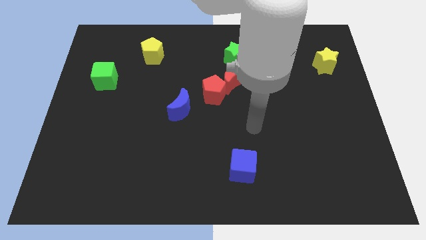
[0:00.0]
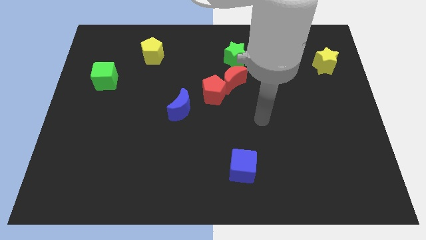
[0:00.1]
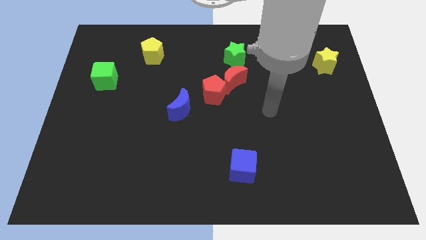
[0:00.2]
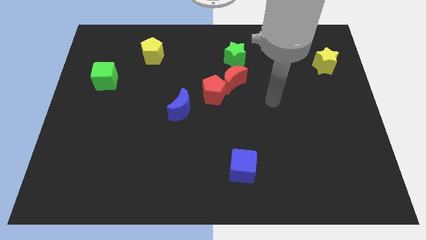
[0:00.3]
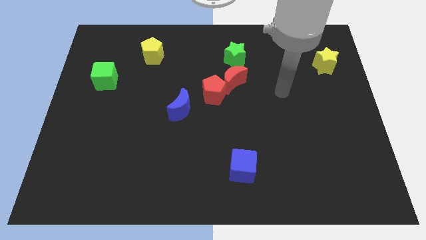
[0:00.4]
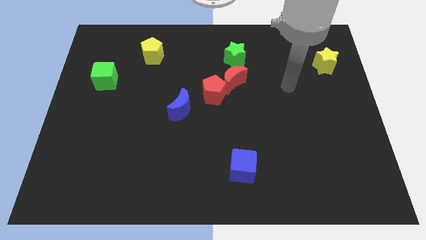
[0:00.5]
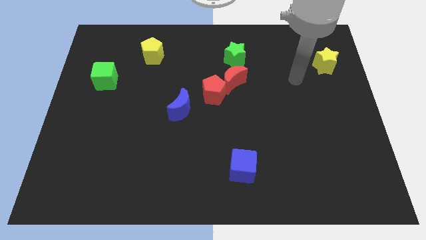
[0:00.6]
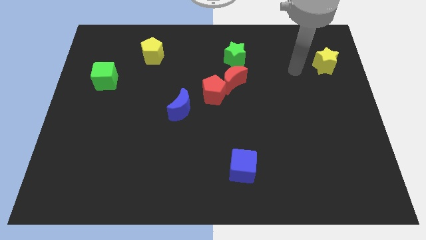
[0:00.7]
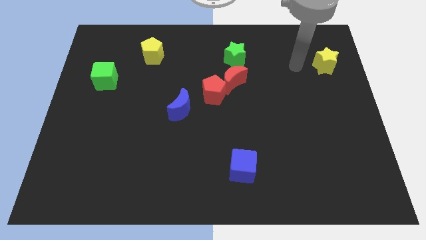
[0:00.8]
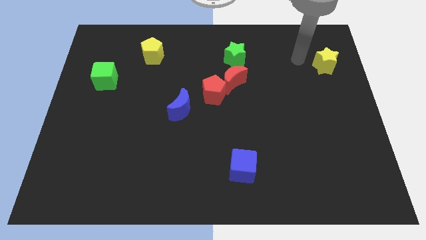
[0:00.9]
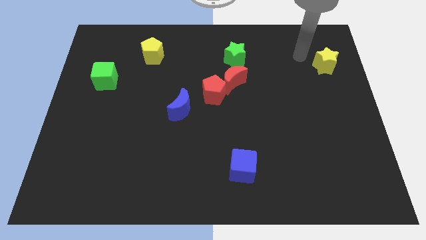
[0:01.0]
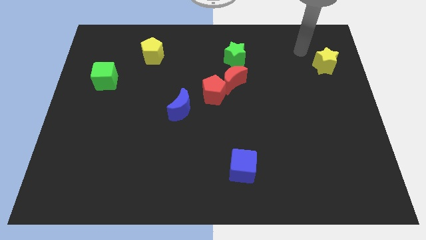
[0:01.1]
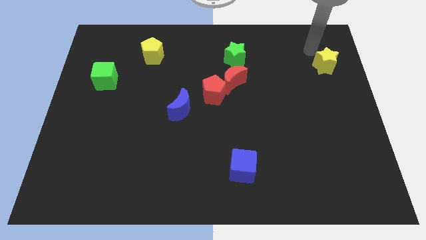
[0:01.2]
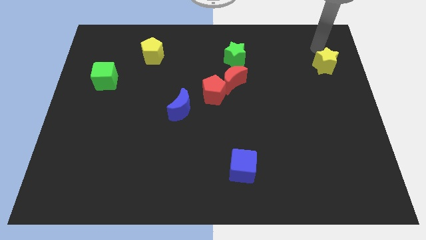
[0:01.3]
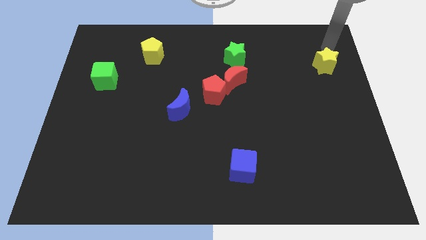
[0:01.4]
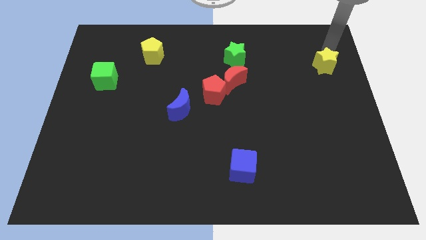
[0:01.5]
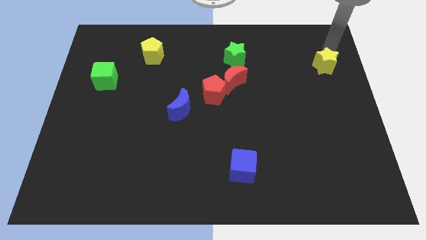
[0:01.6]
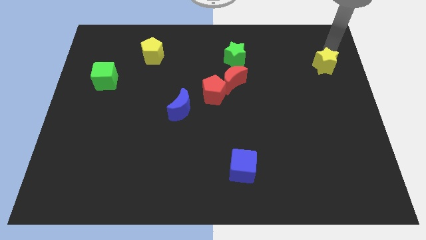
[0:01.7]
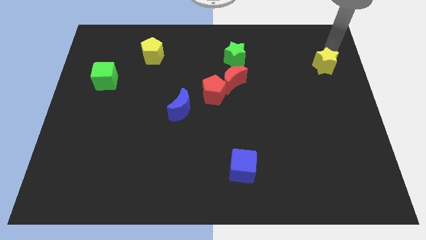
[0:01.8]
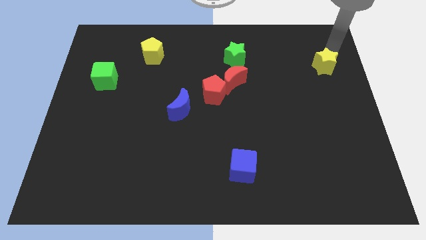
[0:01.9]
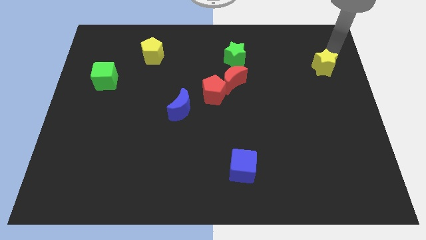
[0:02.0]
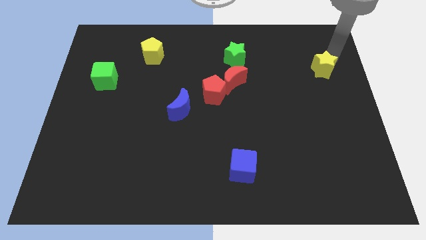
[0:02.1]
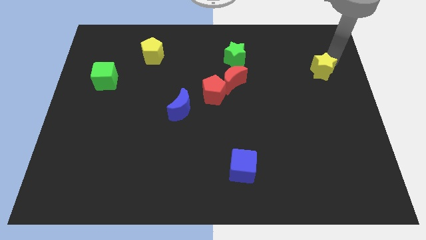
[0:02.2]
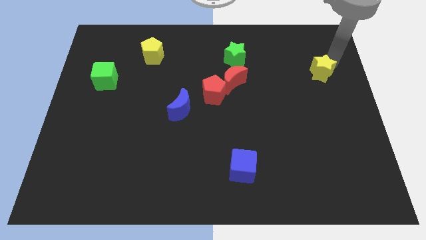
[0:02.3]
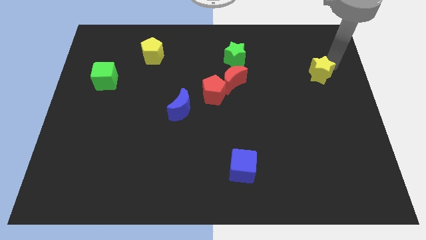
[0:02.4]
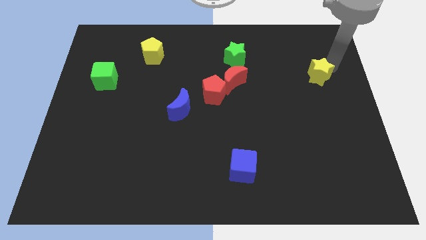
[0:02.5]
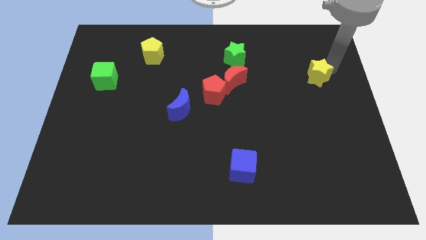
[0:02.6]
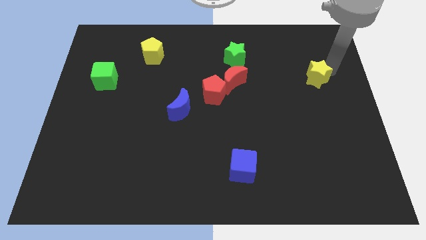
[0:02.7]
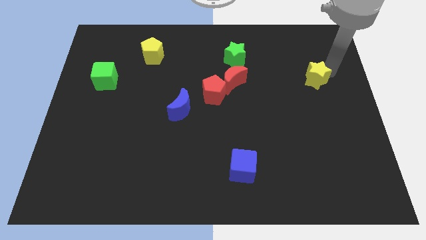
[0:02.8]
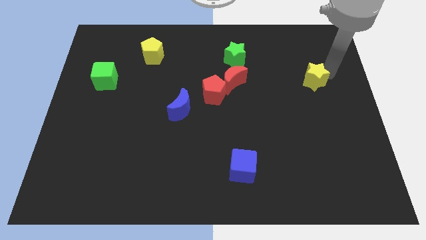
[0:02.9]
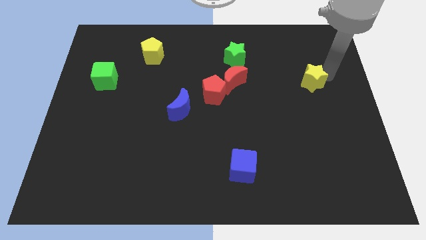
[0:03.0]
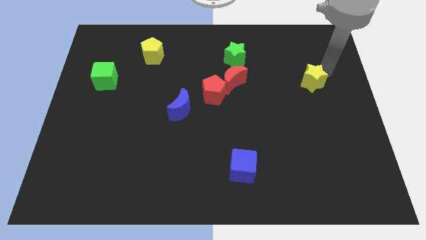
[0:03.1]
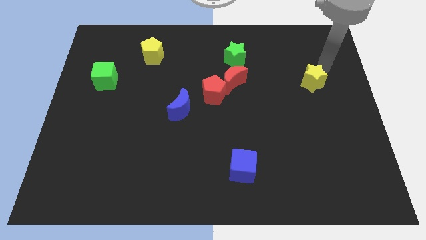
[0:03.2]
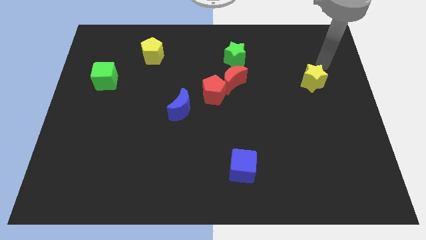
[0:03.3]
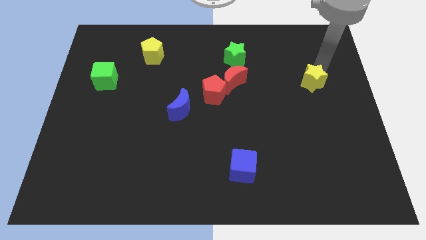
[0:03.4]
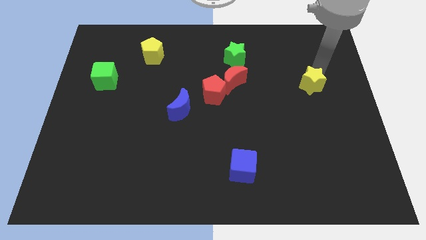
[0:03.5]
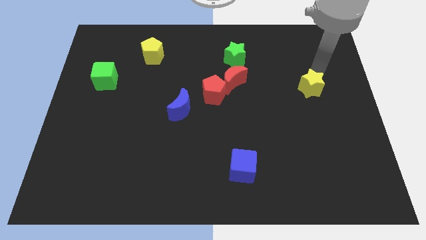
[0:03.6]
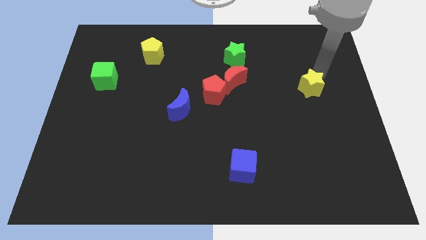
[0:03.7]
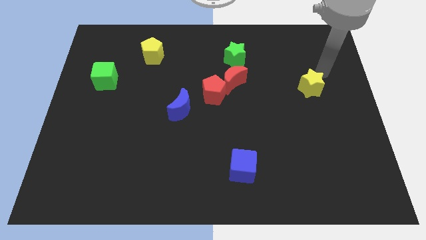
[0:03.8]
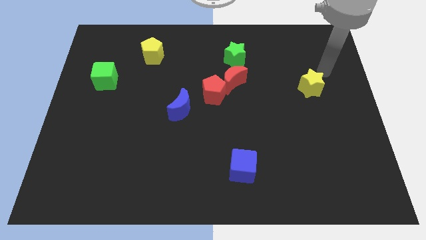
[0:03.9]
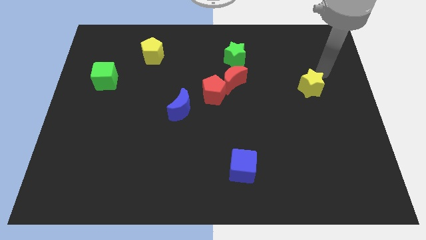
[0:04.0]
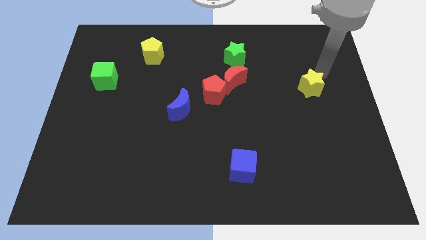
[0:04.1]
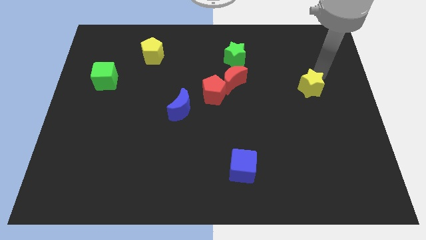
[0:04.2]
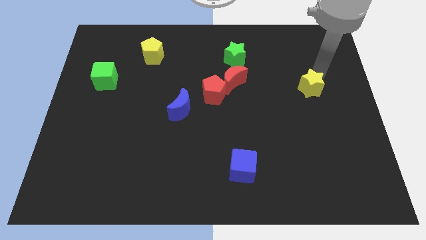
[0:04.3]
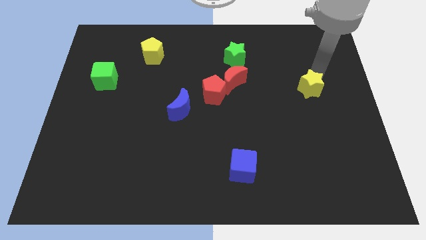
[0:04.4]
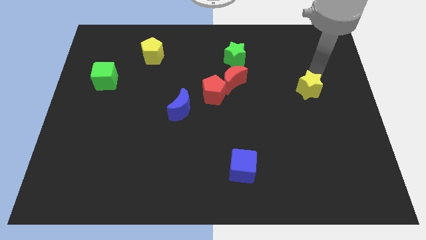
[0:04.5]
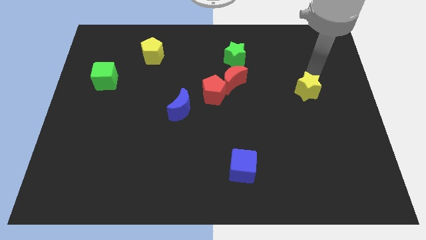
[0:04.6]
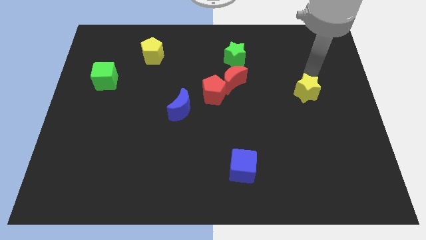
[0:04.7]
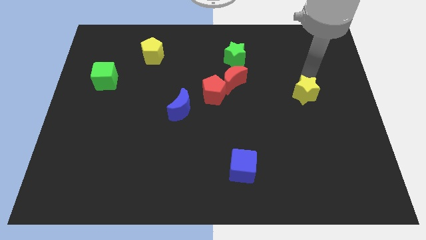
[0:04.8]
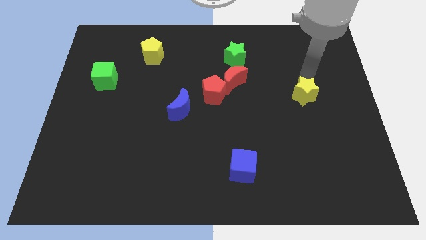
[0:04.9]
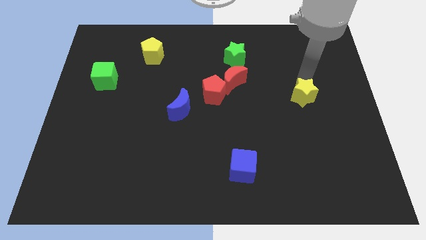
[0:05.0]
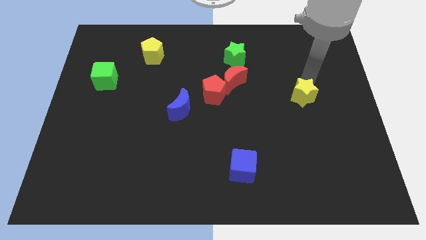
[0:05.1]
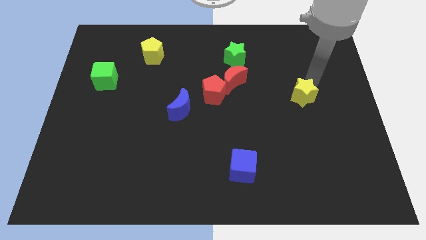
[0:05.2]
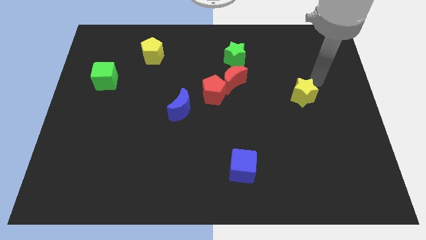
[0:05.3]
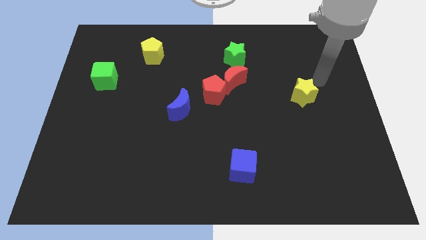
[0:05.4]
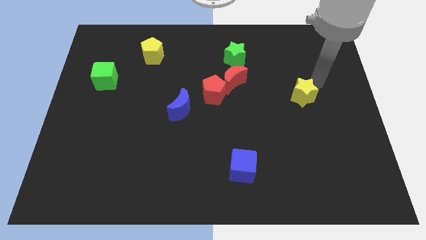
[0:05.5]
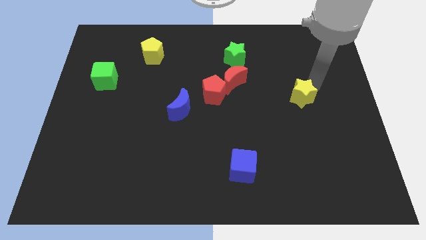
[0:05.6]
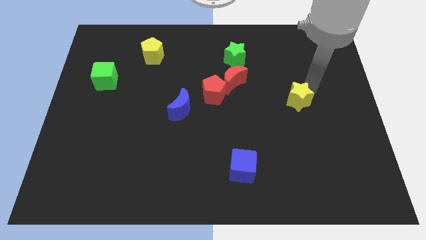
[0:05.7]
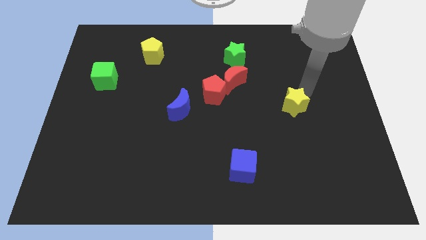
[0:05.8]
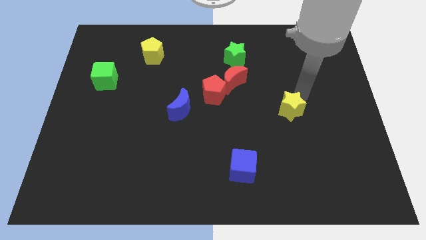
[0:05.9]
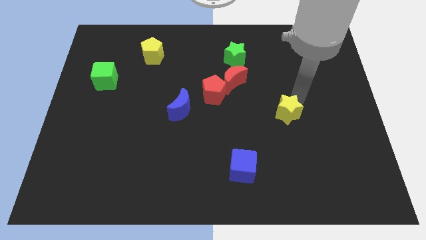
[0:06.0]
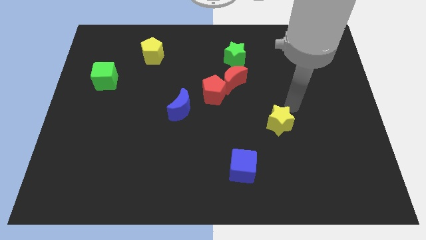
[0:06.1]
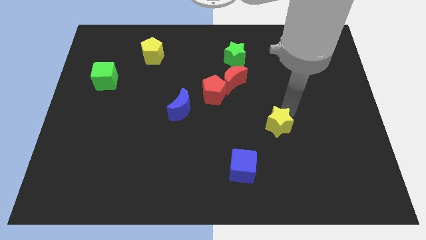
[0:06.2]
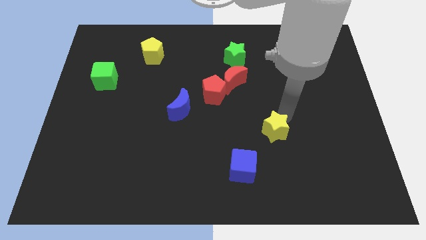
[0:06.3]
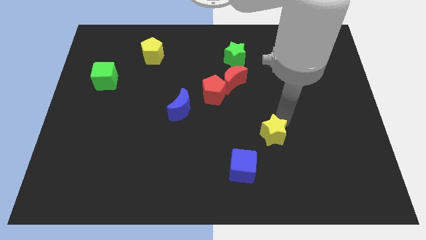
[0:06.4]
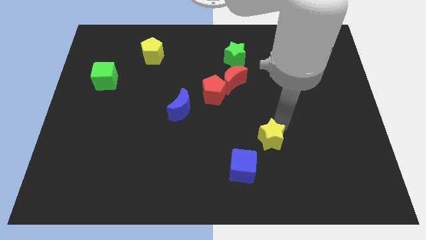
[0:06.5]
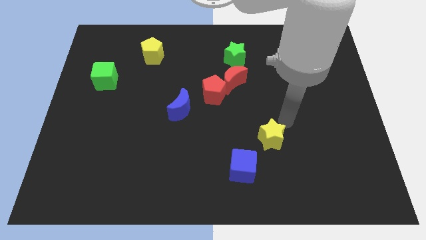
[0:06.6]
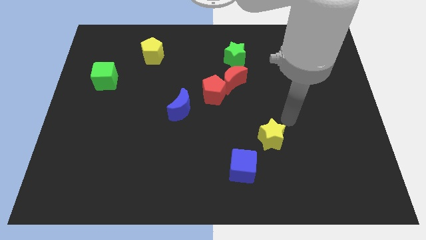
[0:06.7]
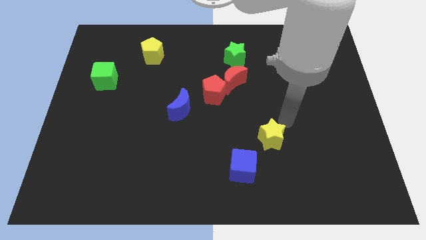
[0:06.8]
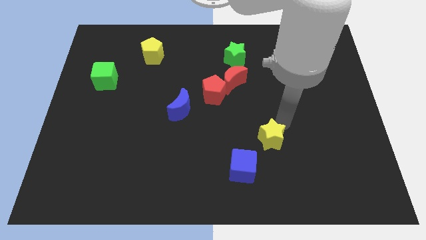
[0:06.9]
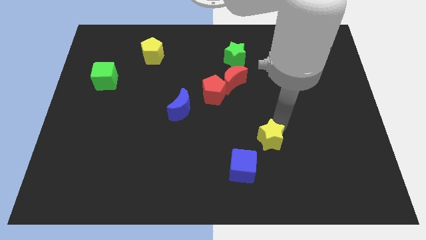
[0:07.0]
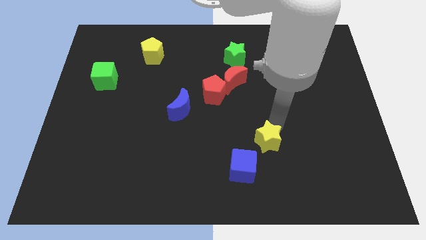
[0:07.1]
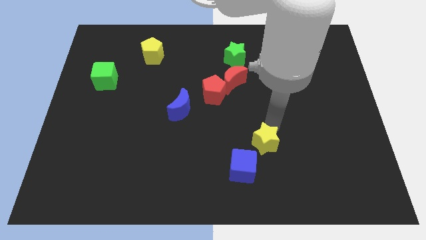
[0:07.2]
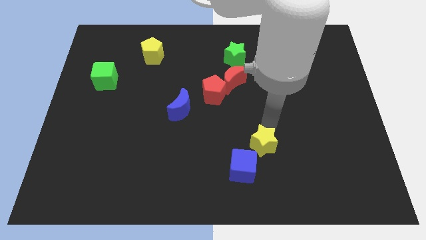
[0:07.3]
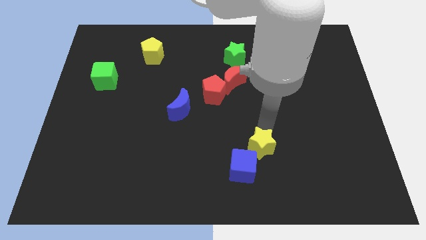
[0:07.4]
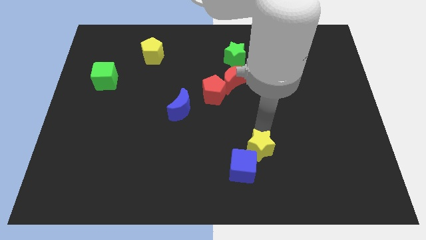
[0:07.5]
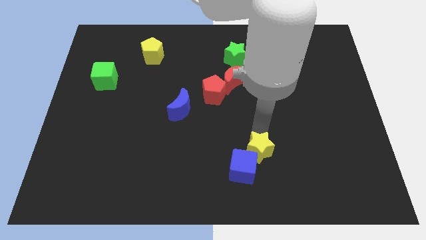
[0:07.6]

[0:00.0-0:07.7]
put the yellow star close to the blue cube
